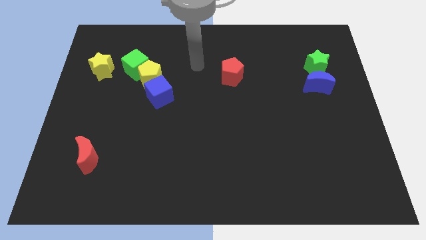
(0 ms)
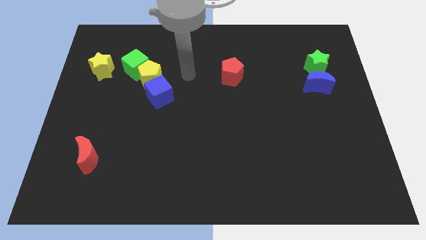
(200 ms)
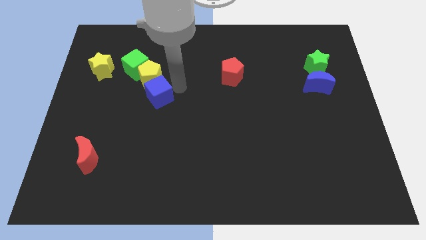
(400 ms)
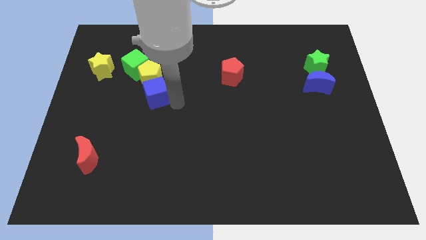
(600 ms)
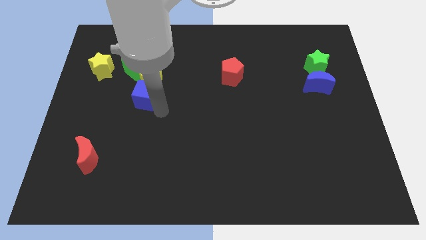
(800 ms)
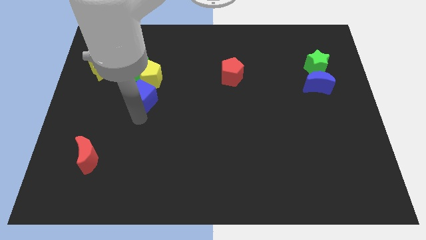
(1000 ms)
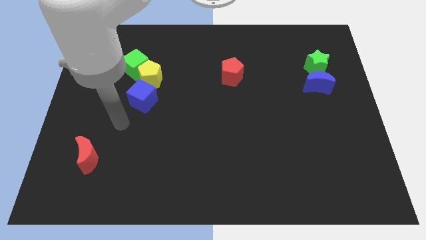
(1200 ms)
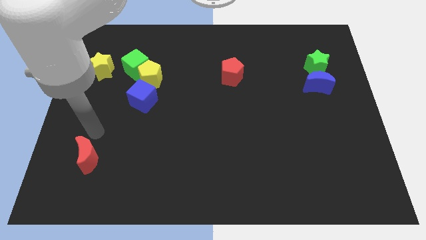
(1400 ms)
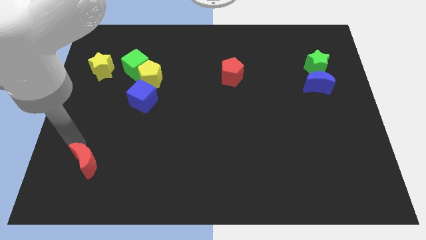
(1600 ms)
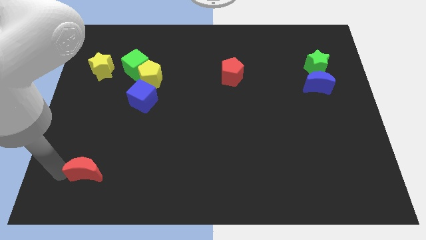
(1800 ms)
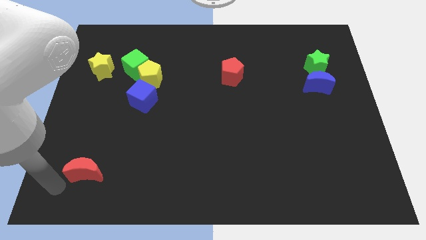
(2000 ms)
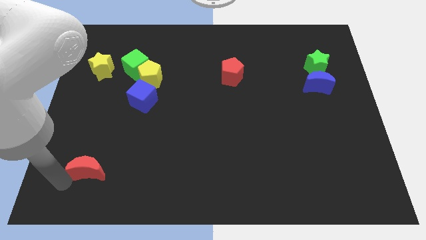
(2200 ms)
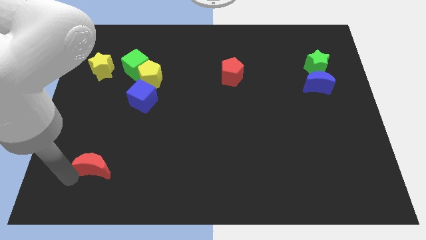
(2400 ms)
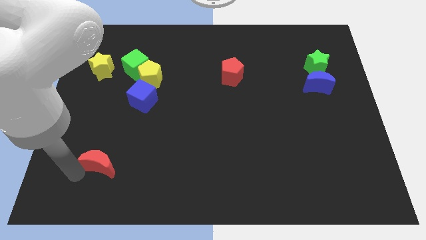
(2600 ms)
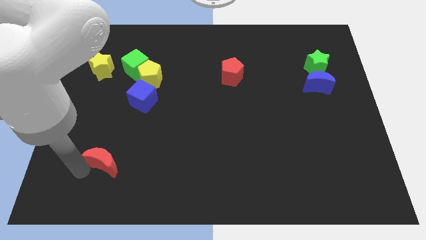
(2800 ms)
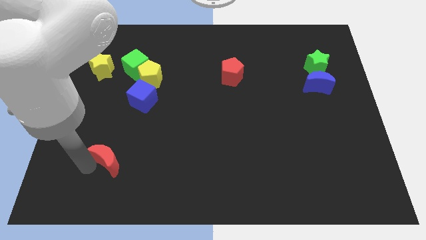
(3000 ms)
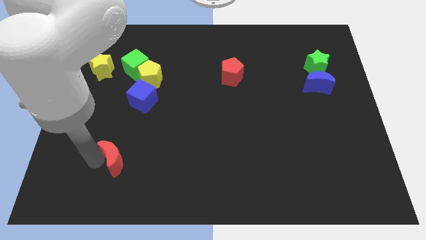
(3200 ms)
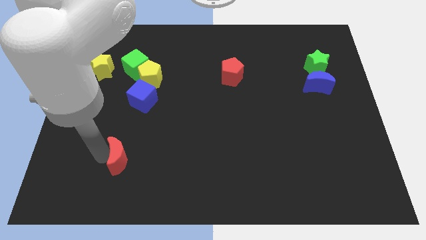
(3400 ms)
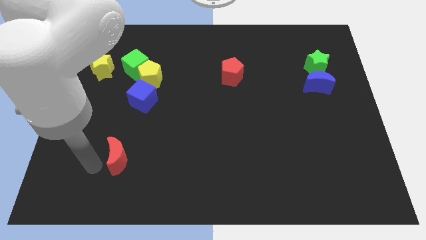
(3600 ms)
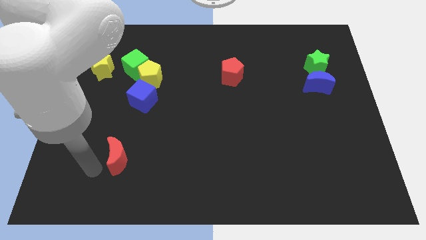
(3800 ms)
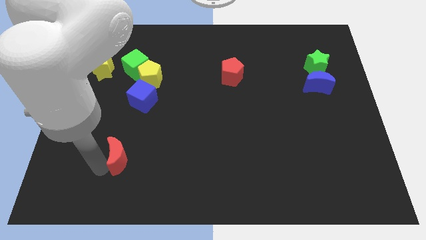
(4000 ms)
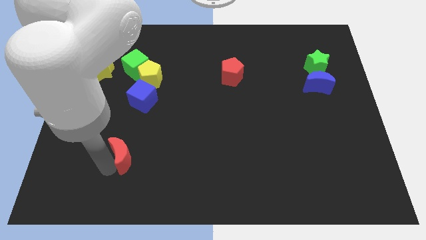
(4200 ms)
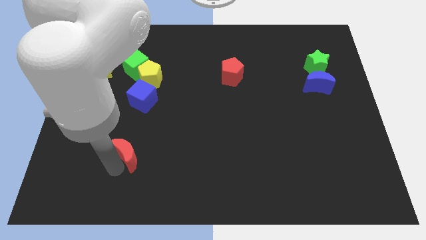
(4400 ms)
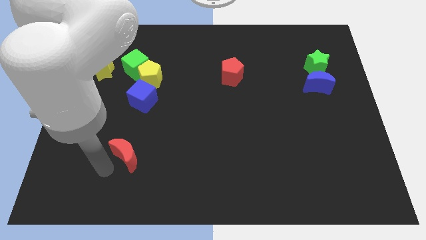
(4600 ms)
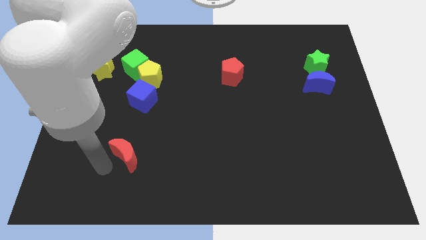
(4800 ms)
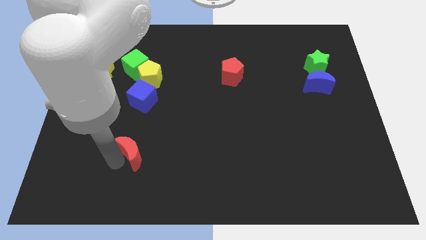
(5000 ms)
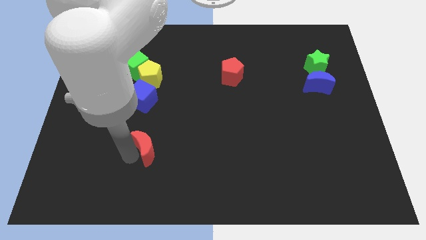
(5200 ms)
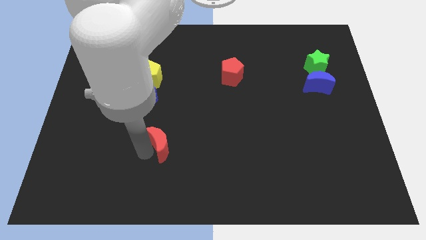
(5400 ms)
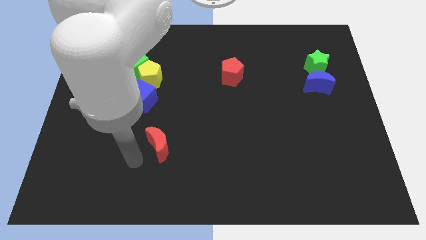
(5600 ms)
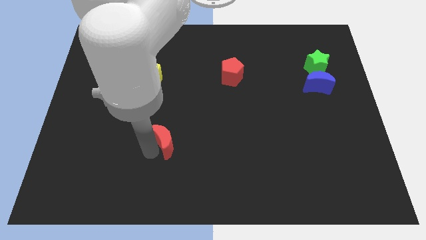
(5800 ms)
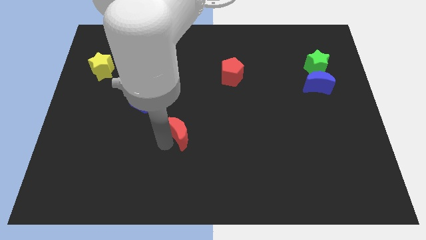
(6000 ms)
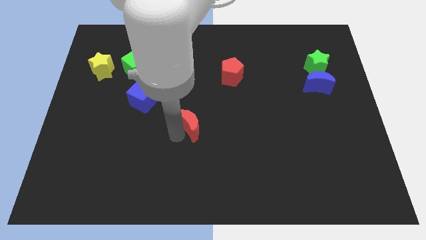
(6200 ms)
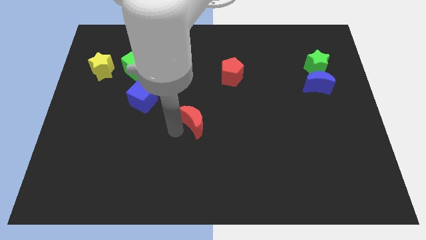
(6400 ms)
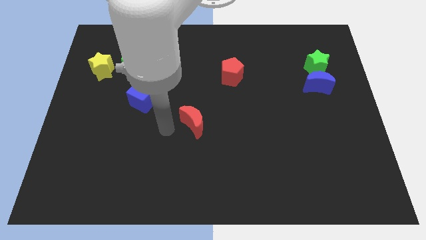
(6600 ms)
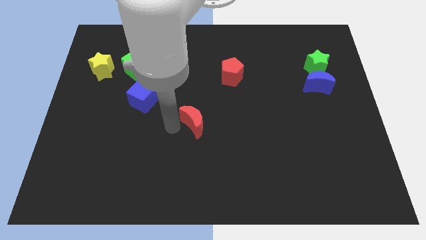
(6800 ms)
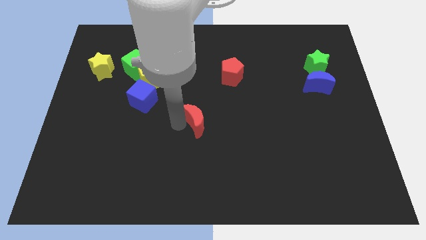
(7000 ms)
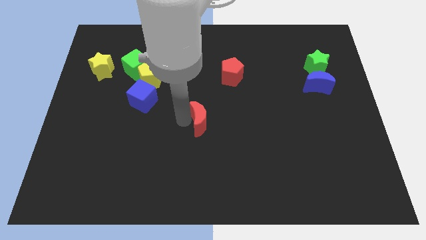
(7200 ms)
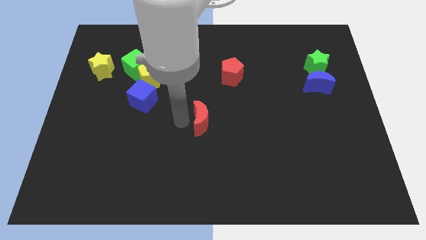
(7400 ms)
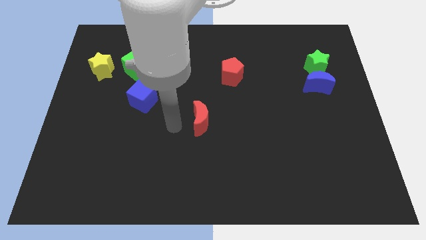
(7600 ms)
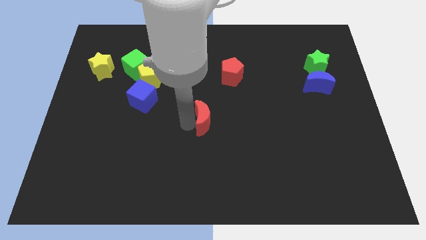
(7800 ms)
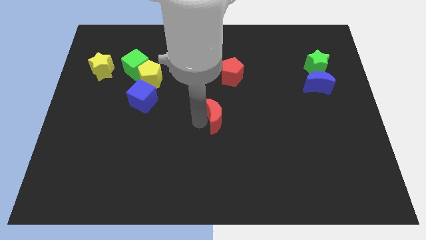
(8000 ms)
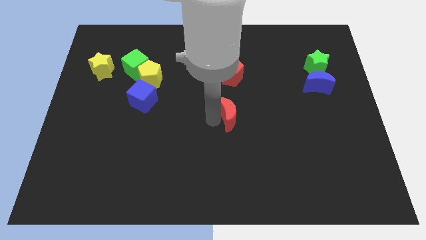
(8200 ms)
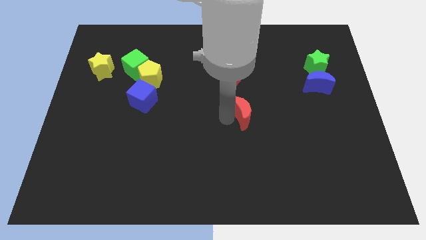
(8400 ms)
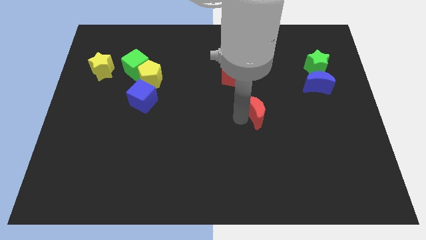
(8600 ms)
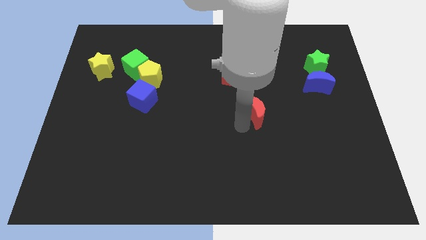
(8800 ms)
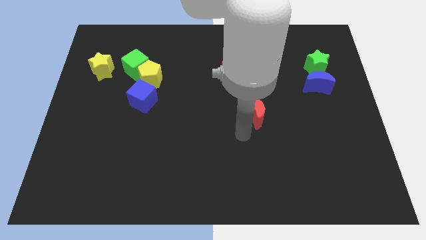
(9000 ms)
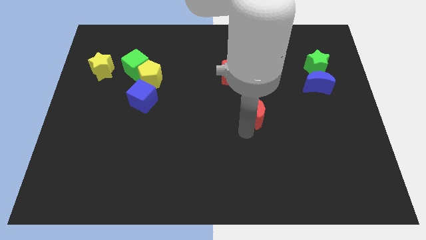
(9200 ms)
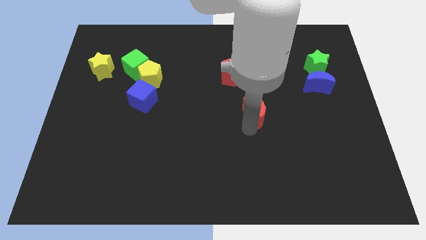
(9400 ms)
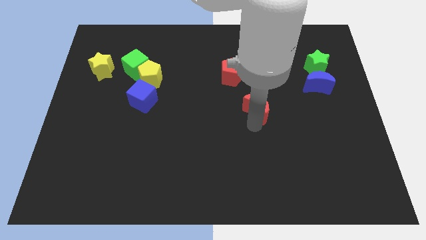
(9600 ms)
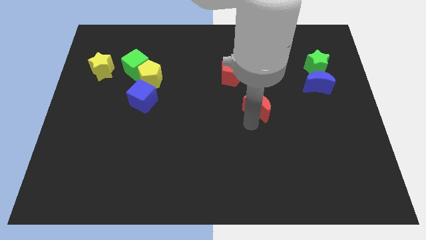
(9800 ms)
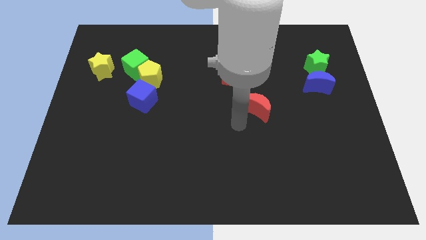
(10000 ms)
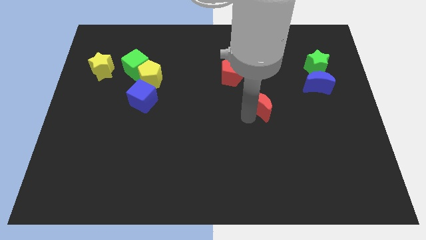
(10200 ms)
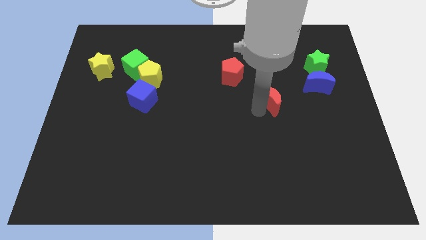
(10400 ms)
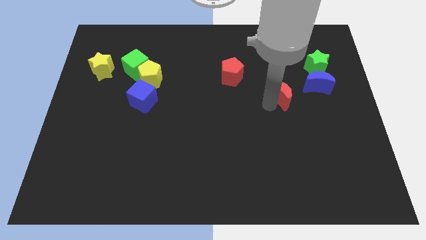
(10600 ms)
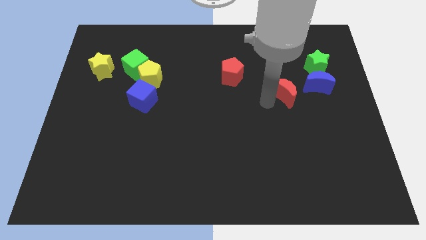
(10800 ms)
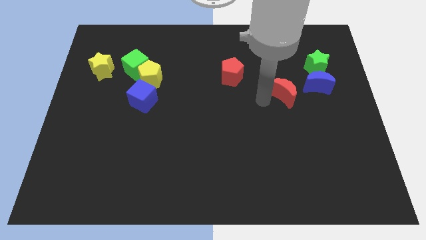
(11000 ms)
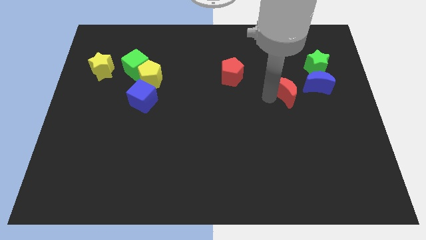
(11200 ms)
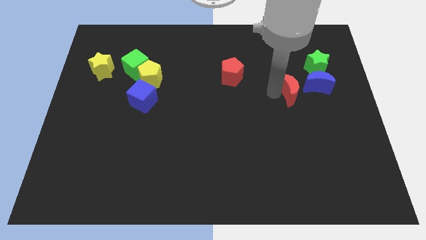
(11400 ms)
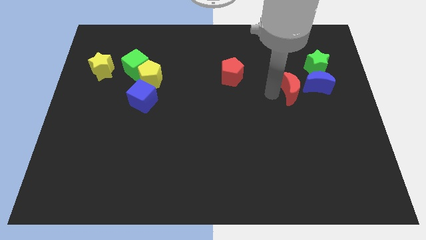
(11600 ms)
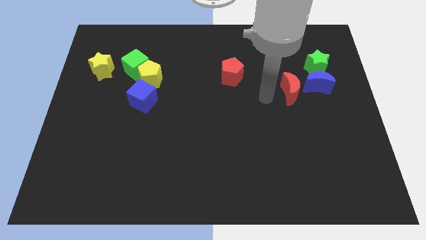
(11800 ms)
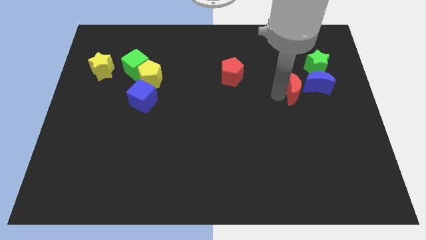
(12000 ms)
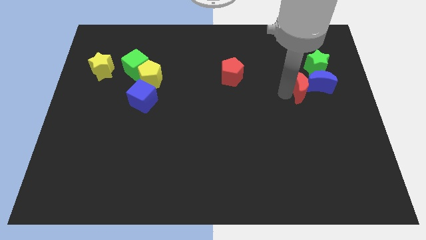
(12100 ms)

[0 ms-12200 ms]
move the red moon next to the blue moon
